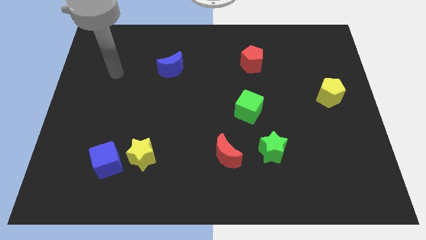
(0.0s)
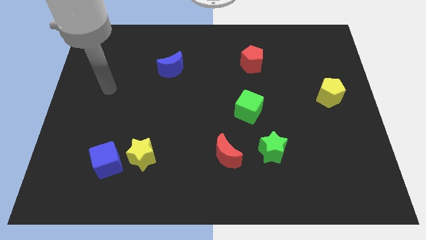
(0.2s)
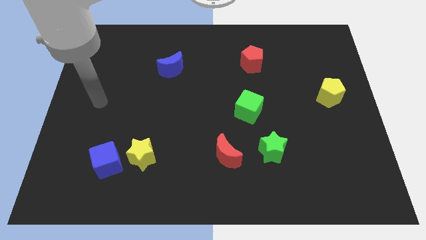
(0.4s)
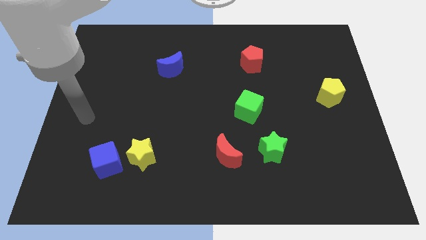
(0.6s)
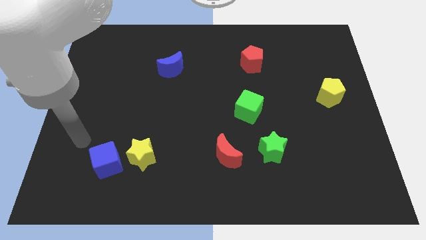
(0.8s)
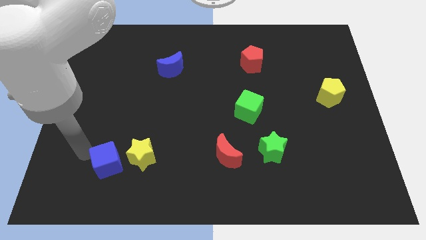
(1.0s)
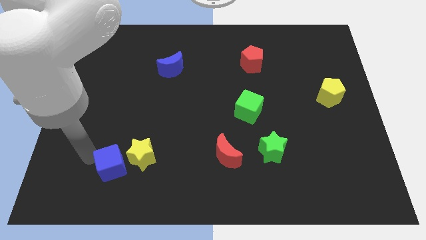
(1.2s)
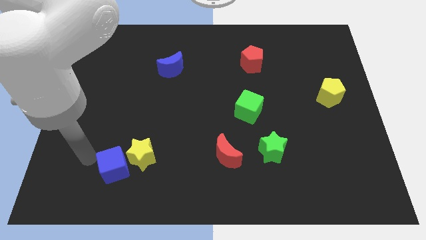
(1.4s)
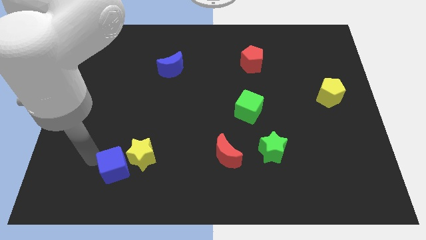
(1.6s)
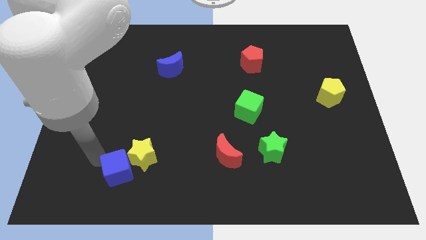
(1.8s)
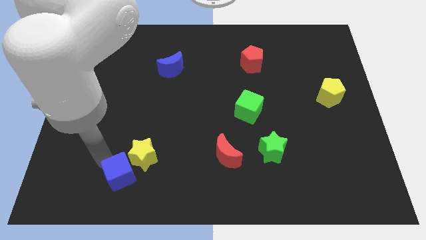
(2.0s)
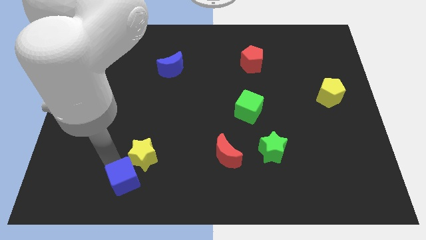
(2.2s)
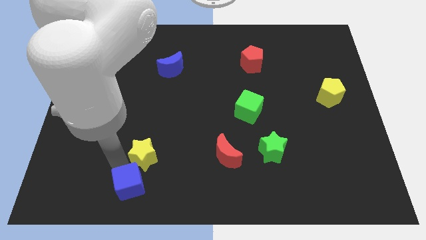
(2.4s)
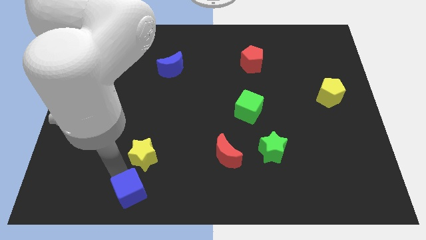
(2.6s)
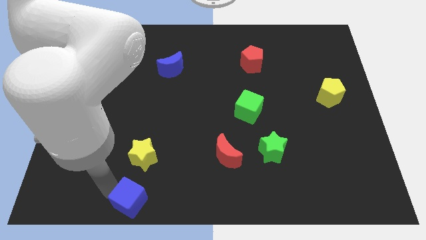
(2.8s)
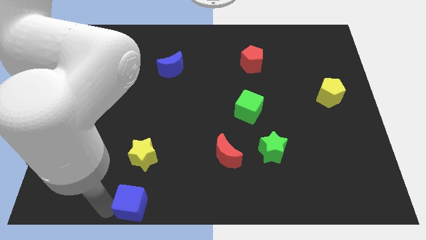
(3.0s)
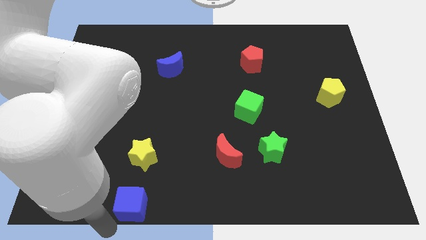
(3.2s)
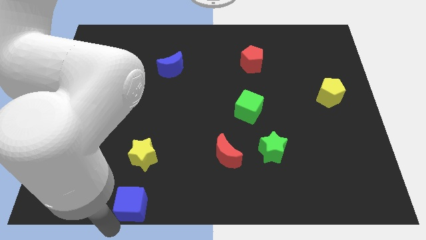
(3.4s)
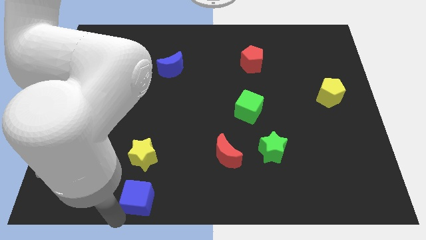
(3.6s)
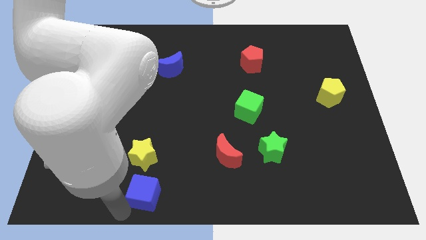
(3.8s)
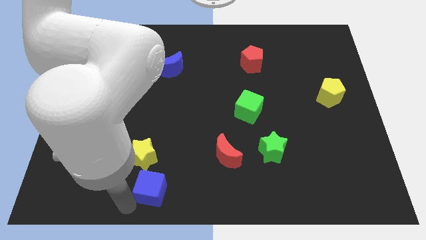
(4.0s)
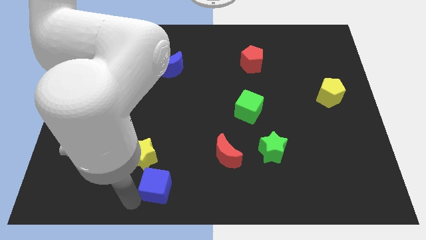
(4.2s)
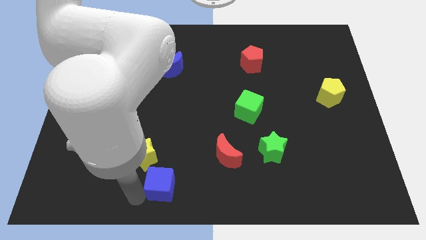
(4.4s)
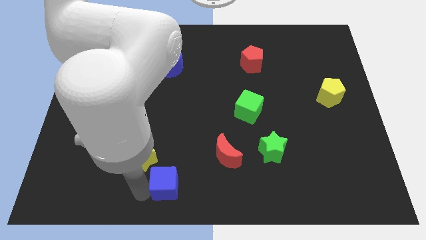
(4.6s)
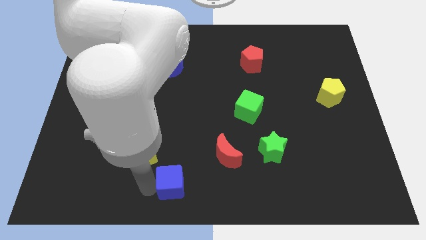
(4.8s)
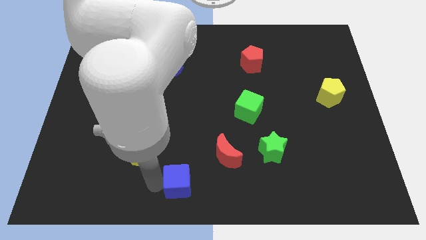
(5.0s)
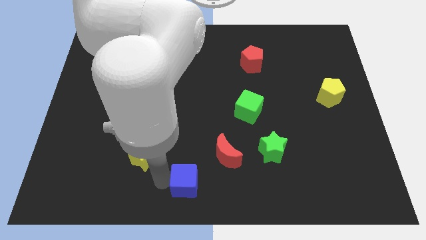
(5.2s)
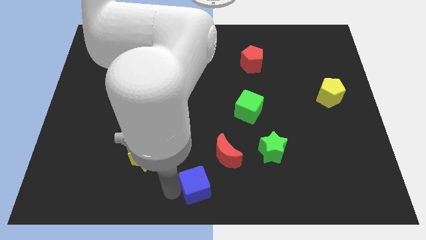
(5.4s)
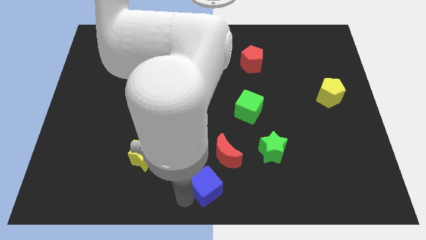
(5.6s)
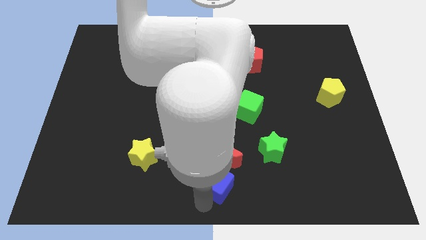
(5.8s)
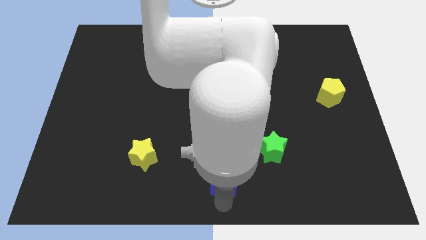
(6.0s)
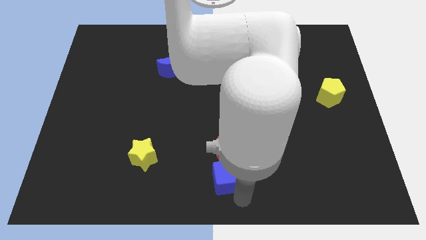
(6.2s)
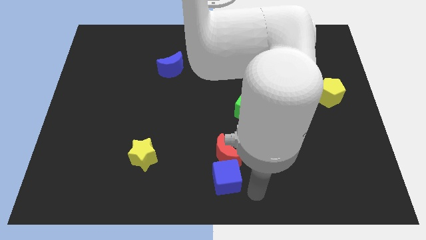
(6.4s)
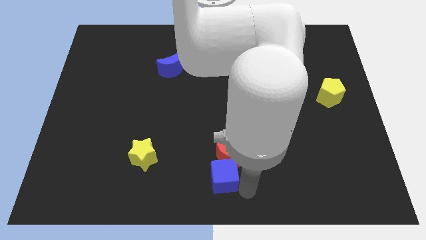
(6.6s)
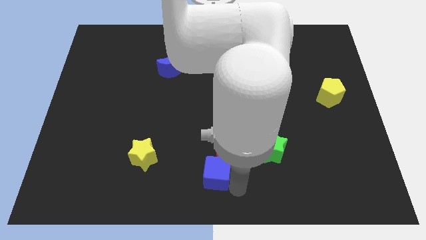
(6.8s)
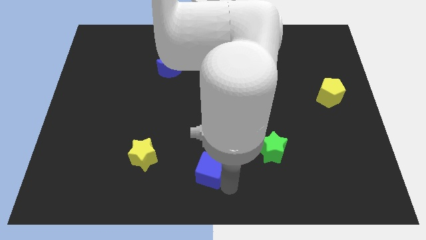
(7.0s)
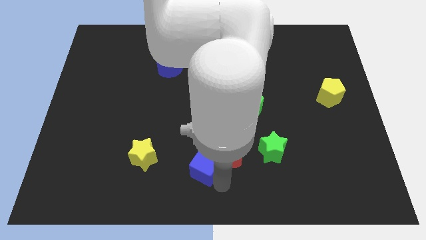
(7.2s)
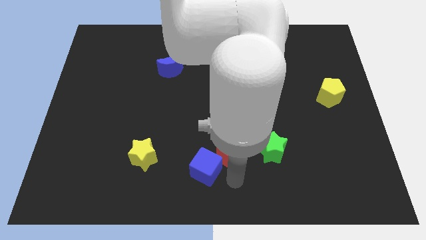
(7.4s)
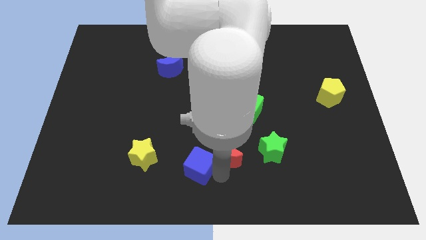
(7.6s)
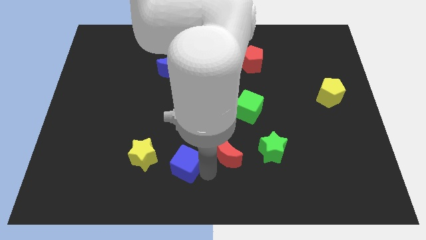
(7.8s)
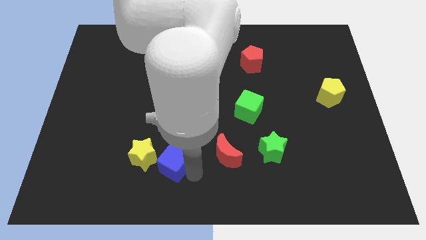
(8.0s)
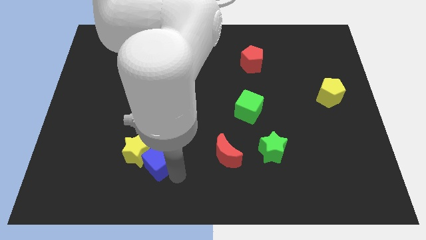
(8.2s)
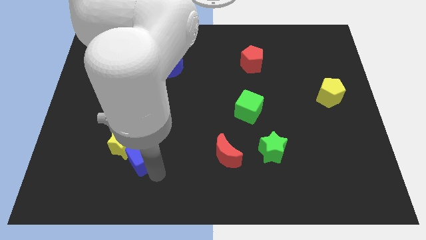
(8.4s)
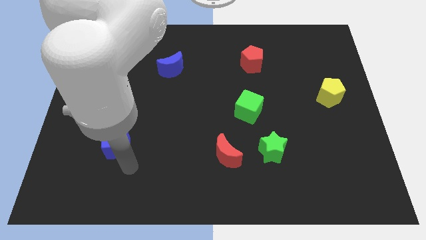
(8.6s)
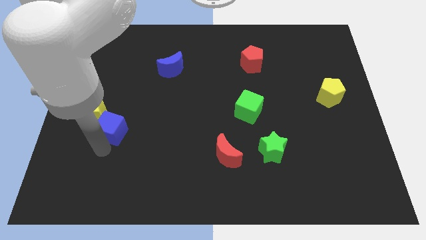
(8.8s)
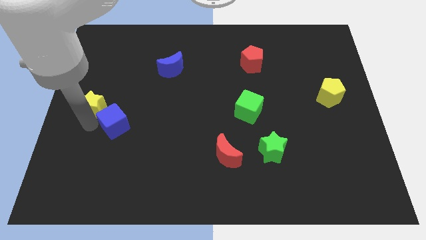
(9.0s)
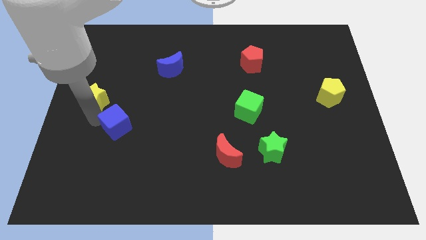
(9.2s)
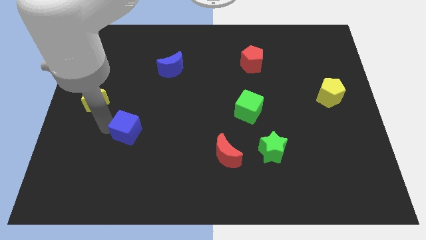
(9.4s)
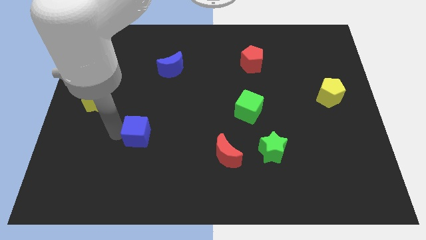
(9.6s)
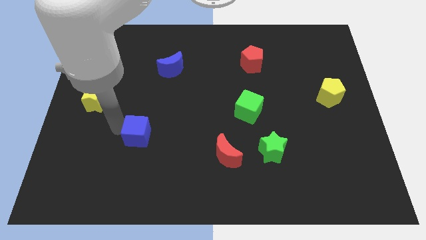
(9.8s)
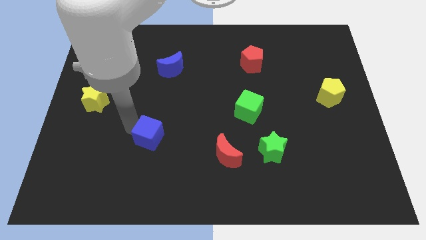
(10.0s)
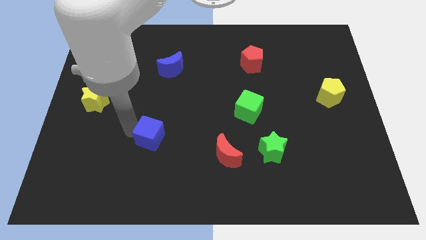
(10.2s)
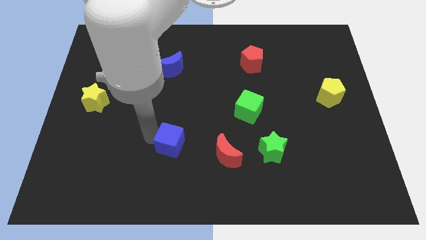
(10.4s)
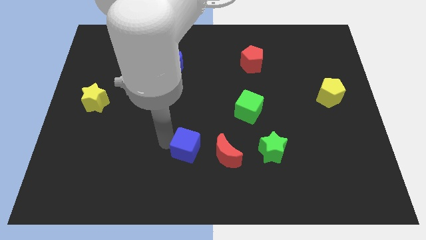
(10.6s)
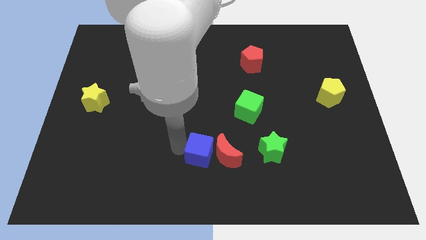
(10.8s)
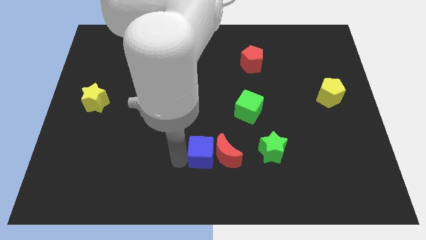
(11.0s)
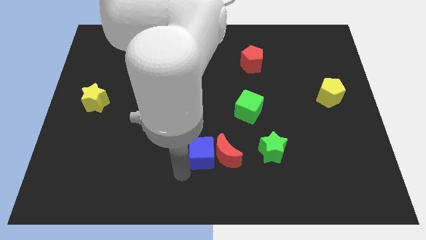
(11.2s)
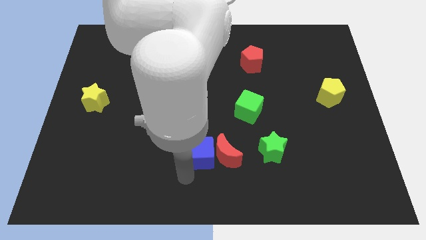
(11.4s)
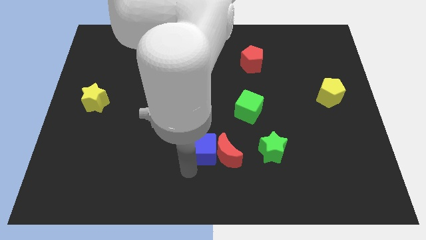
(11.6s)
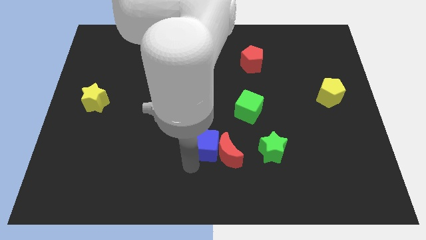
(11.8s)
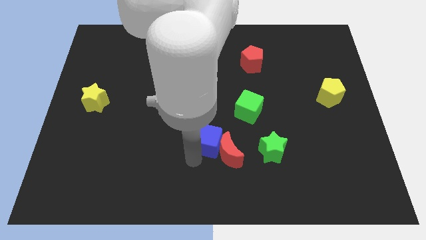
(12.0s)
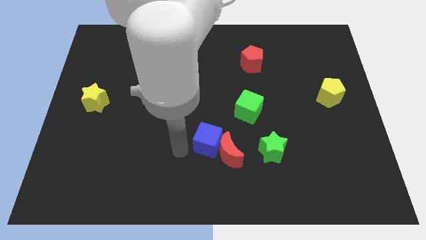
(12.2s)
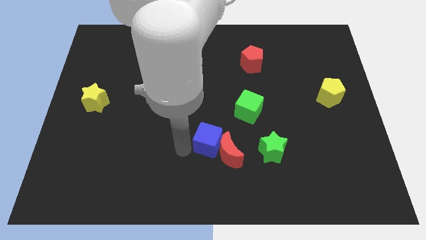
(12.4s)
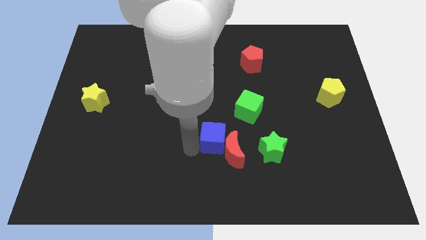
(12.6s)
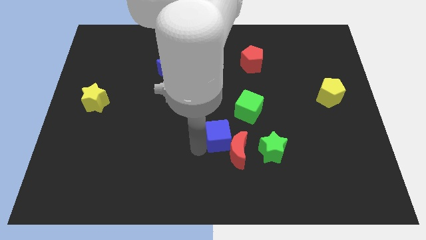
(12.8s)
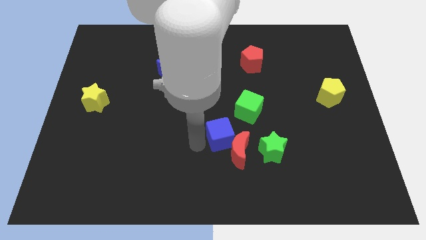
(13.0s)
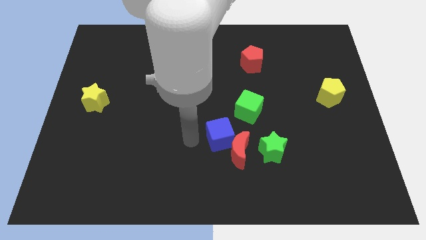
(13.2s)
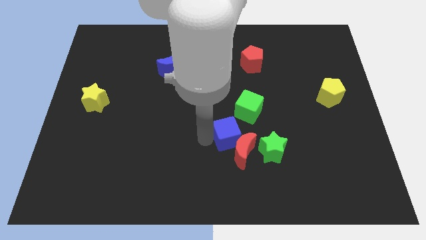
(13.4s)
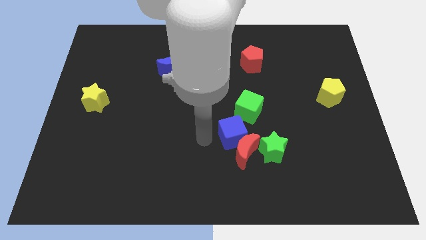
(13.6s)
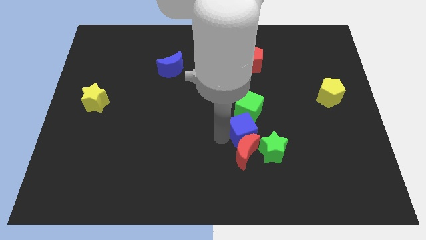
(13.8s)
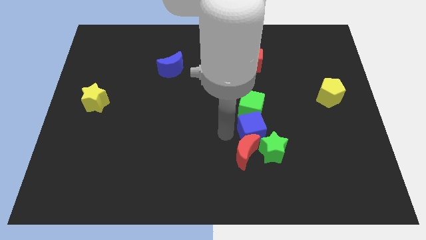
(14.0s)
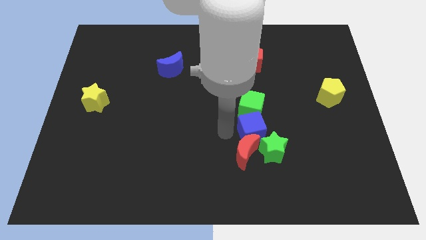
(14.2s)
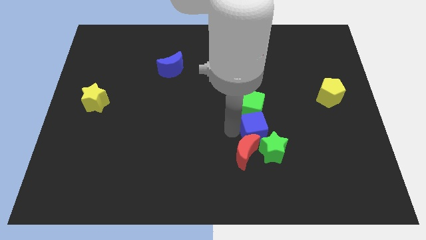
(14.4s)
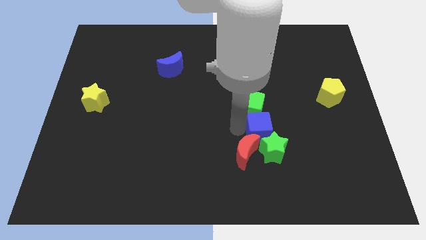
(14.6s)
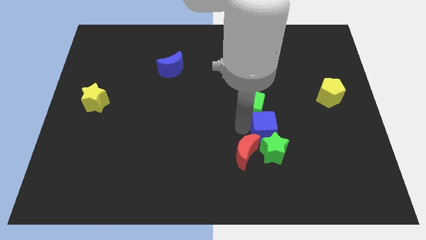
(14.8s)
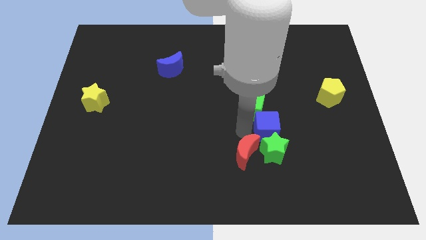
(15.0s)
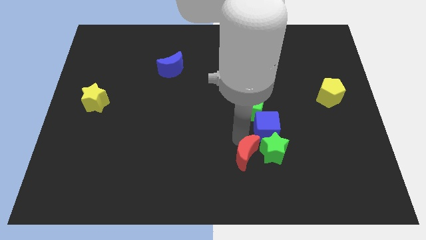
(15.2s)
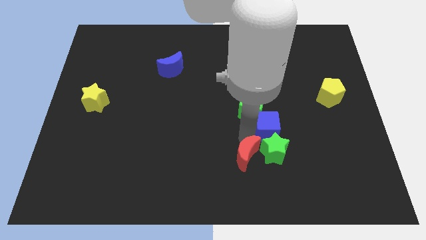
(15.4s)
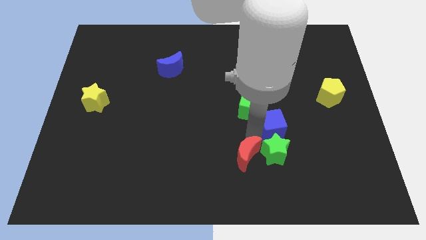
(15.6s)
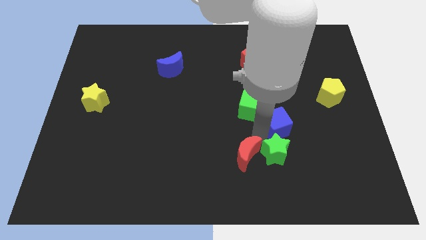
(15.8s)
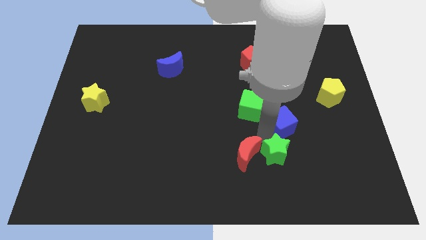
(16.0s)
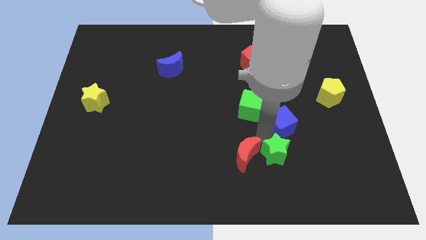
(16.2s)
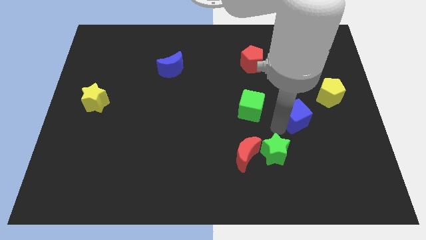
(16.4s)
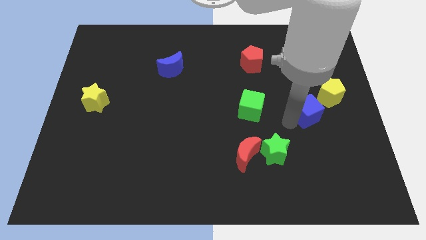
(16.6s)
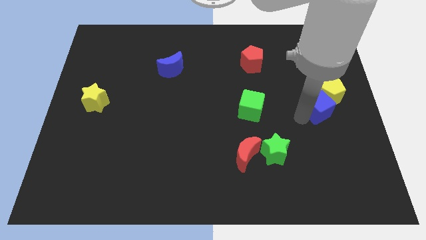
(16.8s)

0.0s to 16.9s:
push the blue cube towards the yellow pentagon
